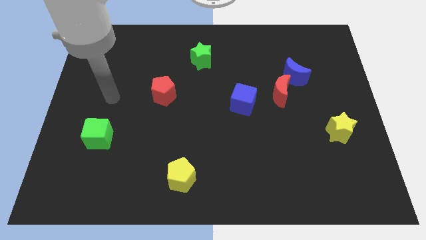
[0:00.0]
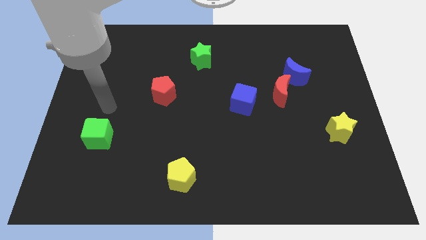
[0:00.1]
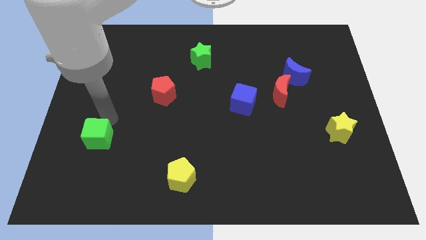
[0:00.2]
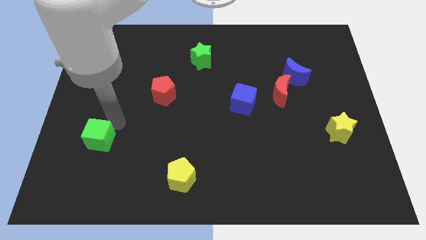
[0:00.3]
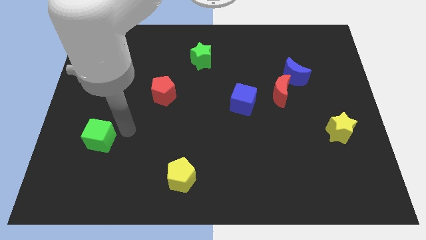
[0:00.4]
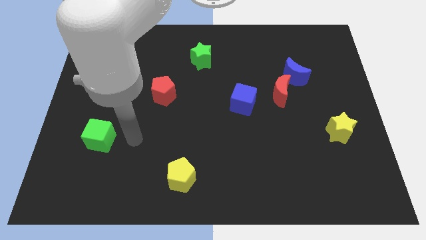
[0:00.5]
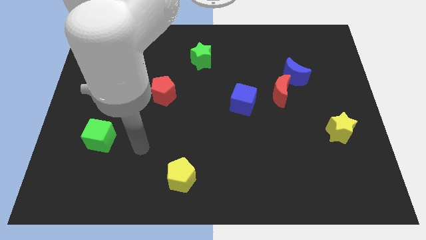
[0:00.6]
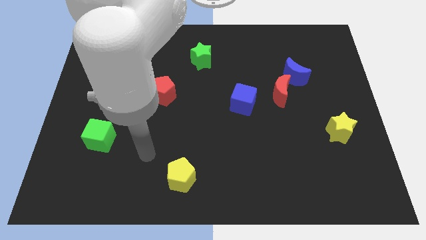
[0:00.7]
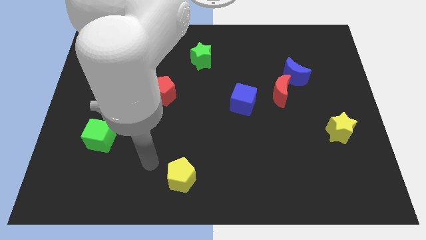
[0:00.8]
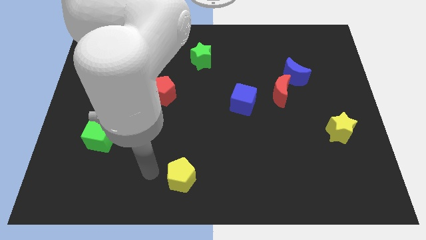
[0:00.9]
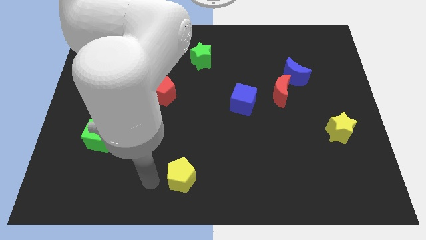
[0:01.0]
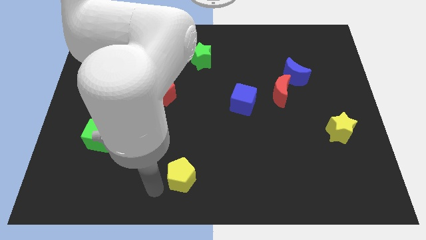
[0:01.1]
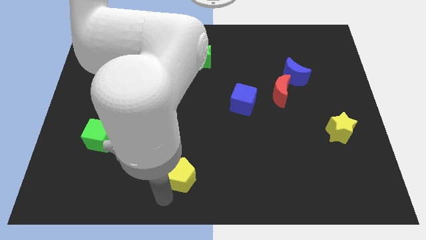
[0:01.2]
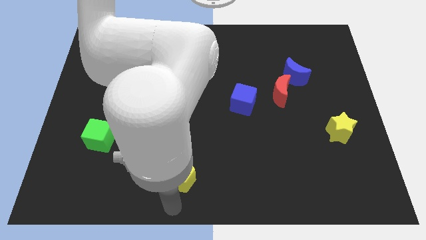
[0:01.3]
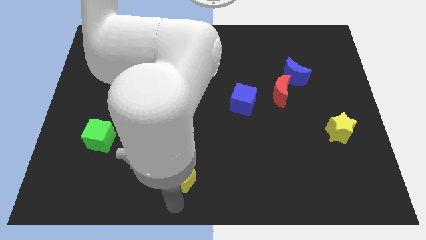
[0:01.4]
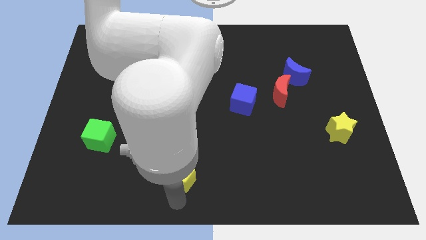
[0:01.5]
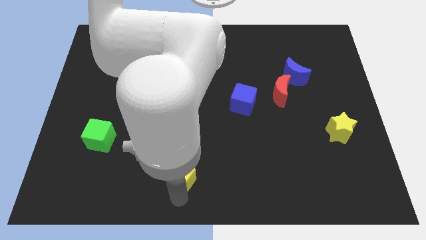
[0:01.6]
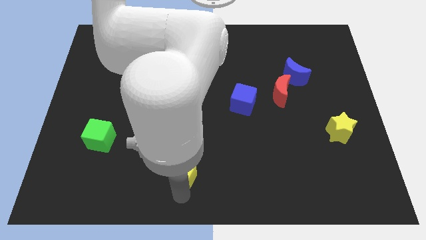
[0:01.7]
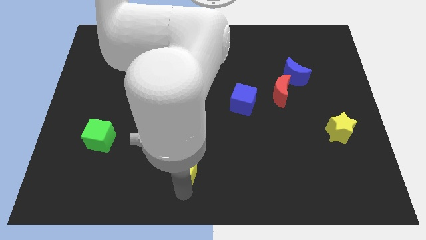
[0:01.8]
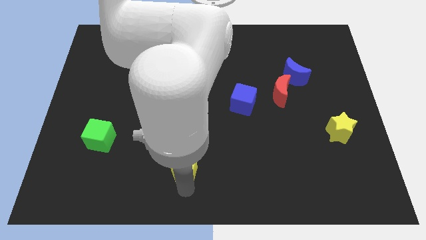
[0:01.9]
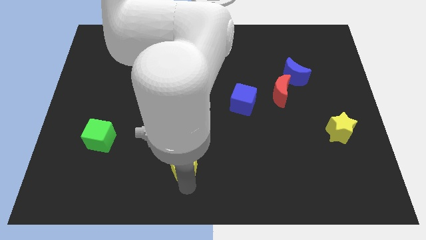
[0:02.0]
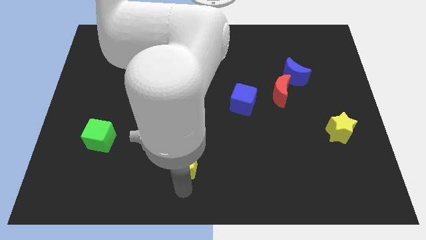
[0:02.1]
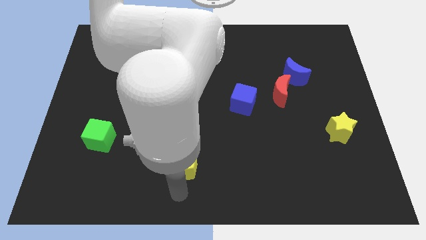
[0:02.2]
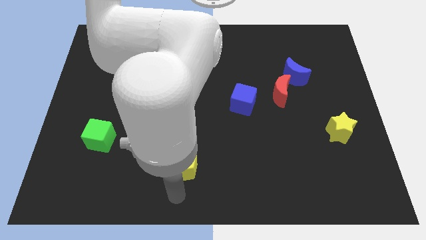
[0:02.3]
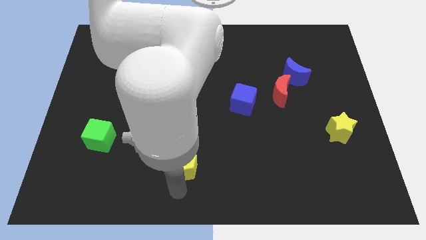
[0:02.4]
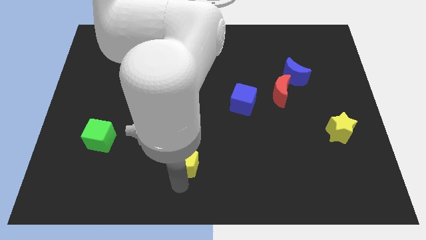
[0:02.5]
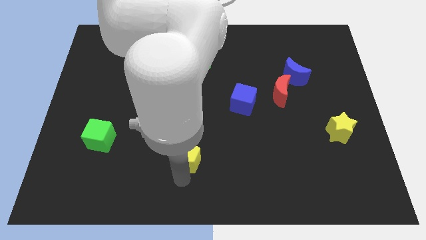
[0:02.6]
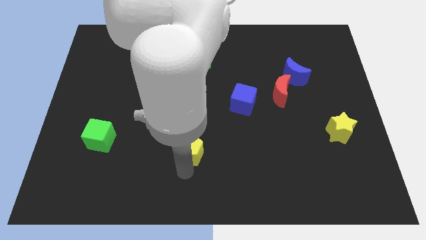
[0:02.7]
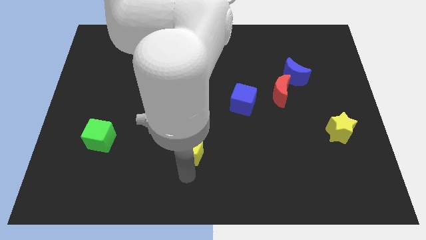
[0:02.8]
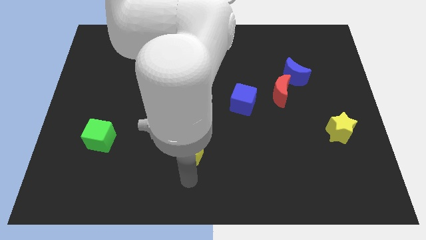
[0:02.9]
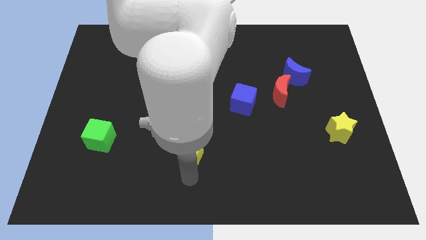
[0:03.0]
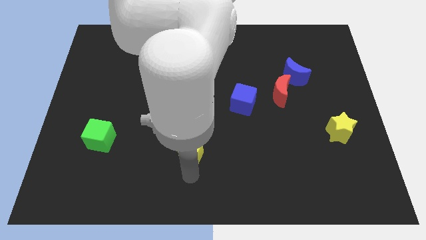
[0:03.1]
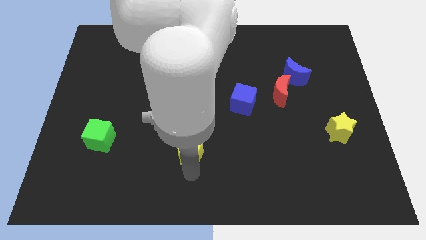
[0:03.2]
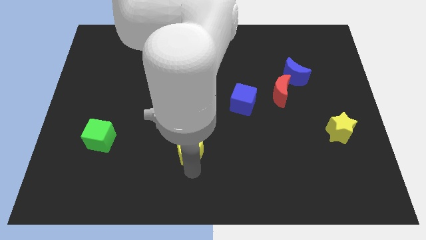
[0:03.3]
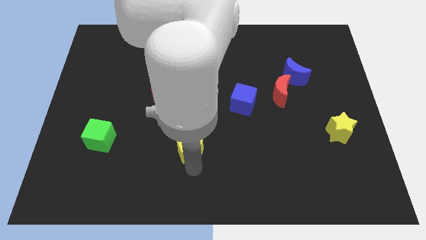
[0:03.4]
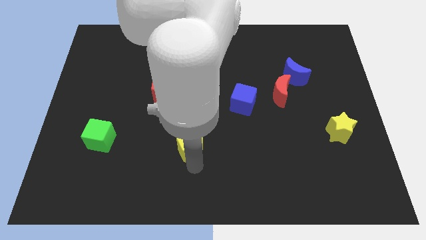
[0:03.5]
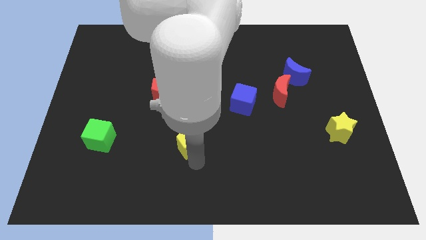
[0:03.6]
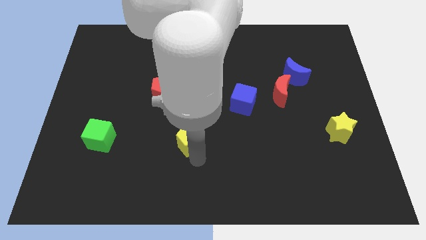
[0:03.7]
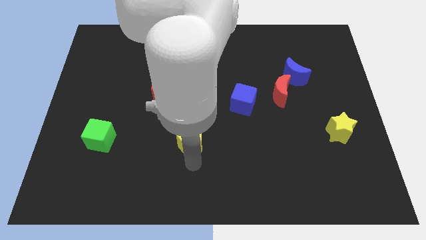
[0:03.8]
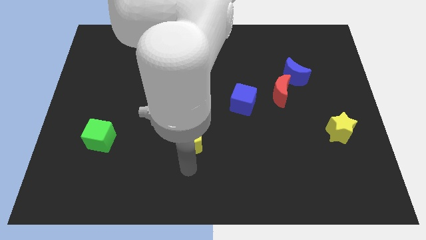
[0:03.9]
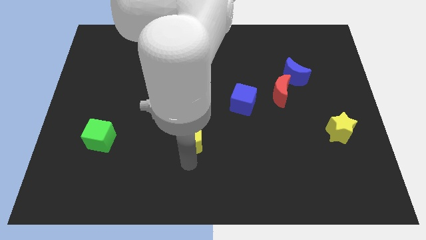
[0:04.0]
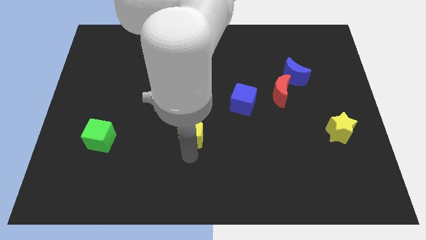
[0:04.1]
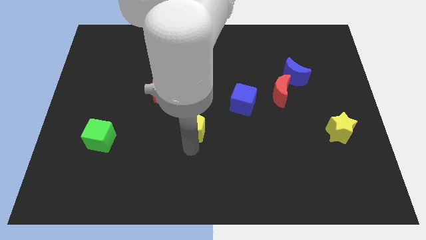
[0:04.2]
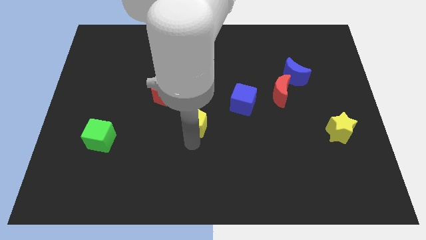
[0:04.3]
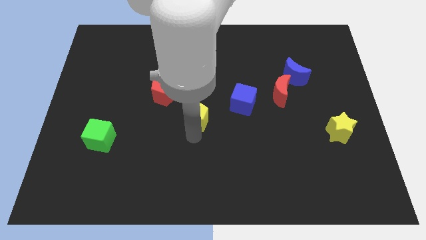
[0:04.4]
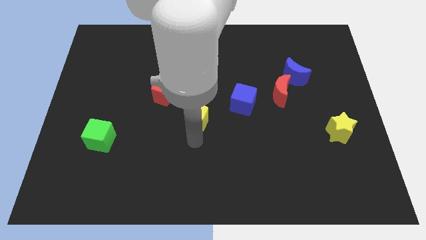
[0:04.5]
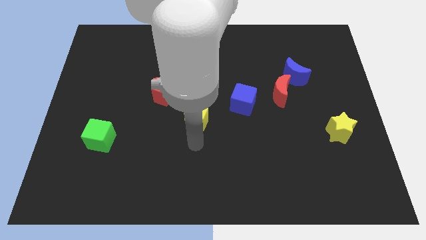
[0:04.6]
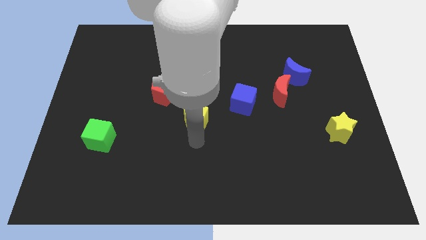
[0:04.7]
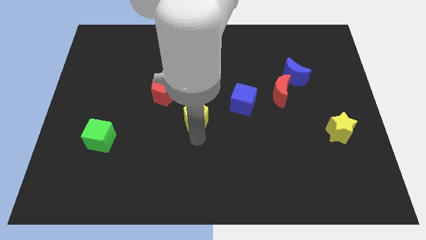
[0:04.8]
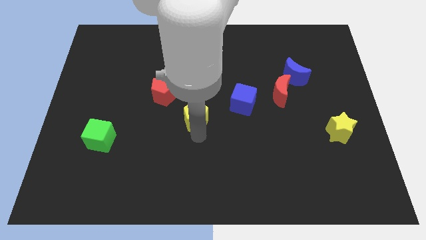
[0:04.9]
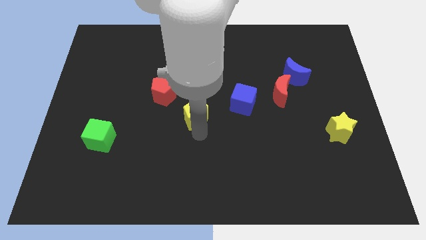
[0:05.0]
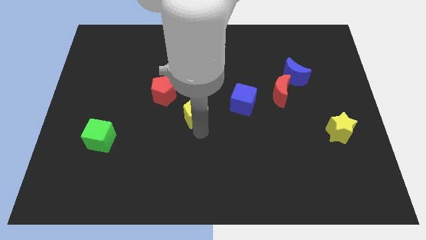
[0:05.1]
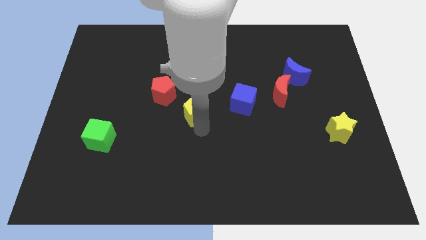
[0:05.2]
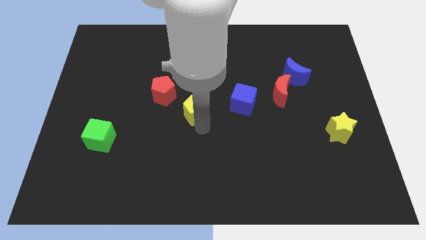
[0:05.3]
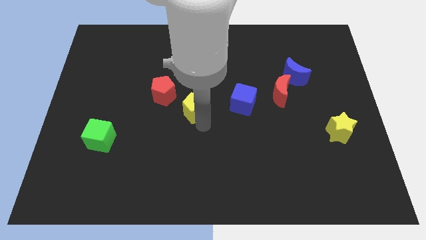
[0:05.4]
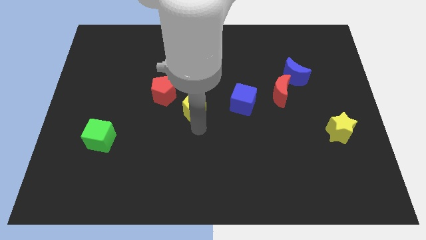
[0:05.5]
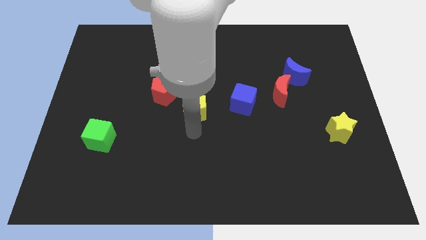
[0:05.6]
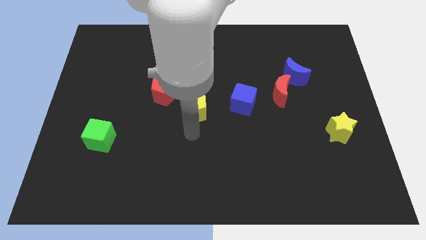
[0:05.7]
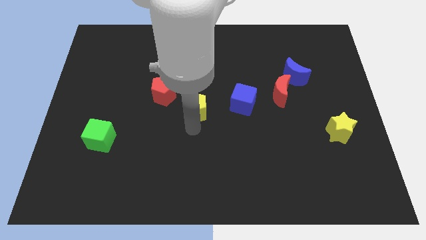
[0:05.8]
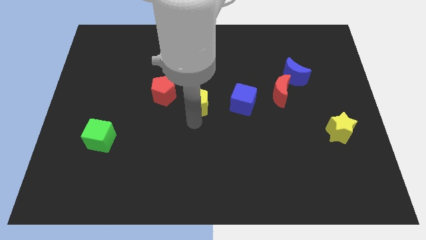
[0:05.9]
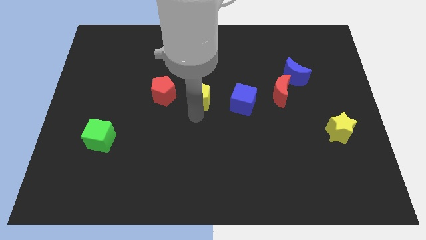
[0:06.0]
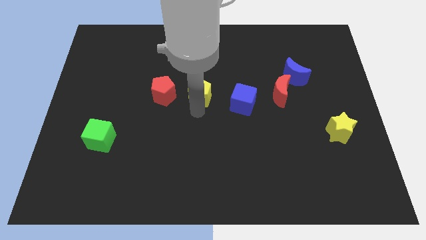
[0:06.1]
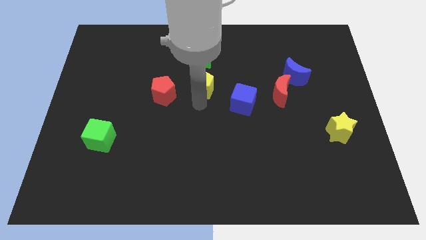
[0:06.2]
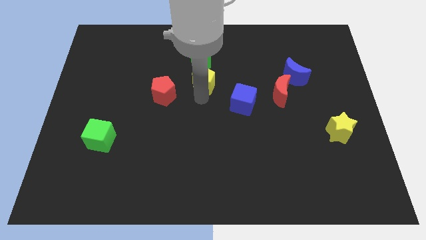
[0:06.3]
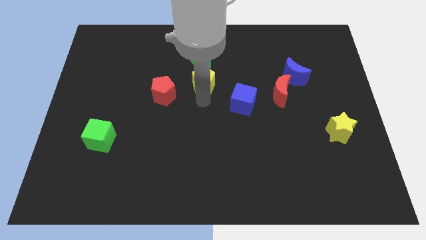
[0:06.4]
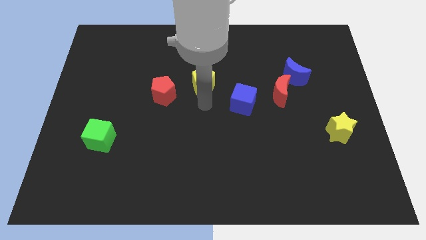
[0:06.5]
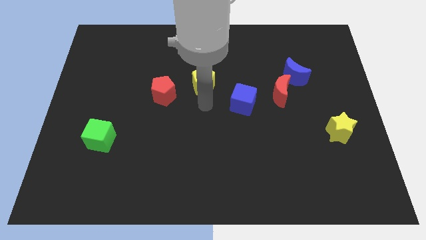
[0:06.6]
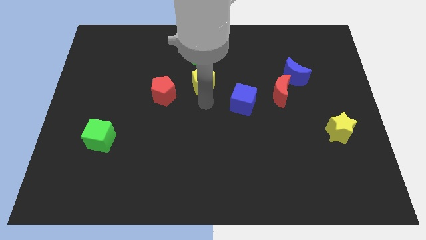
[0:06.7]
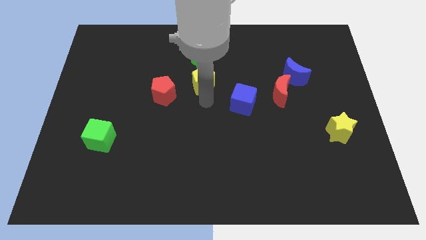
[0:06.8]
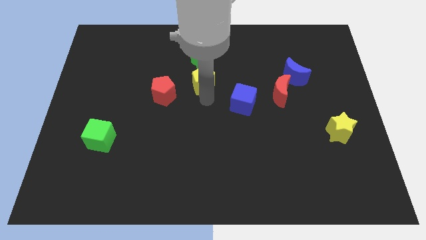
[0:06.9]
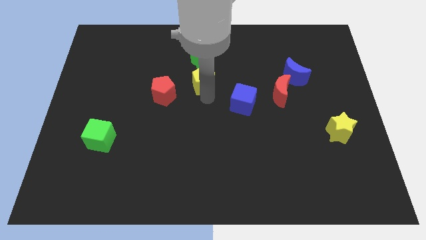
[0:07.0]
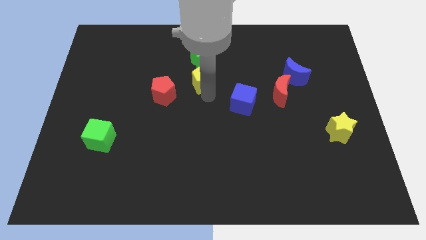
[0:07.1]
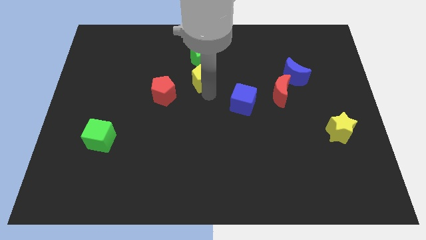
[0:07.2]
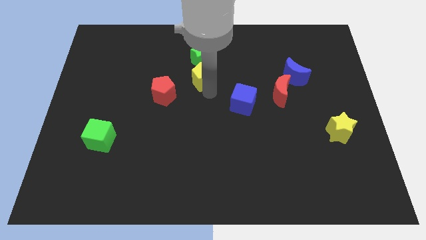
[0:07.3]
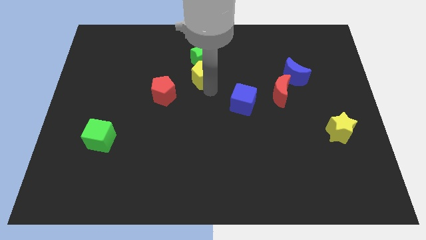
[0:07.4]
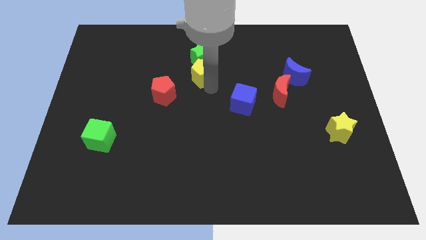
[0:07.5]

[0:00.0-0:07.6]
move the yellow pentagon towards the green star
